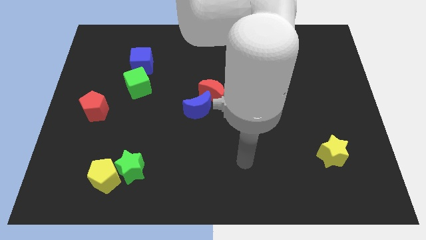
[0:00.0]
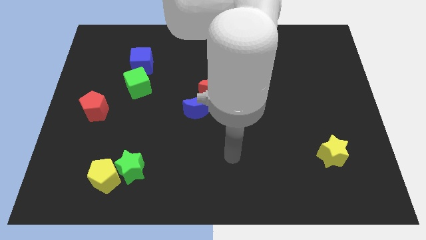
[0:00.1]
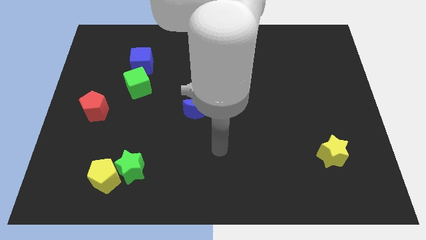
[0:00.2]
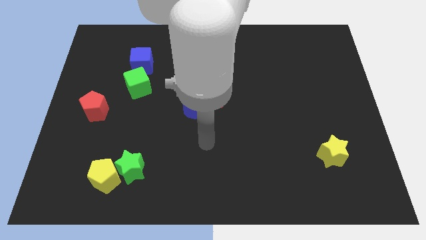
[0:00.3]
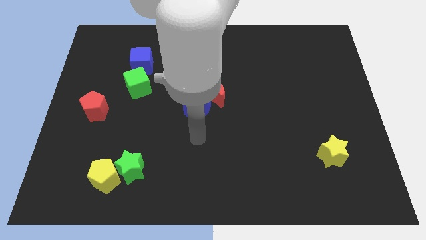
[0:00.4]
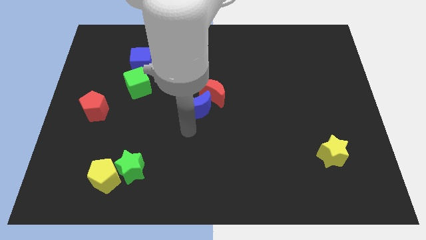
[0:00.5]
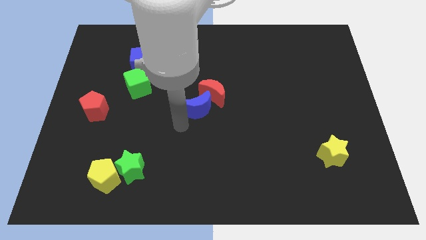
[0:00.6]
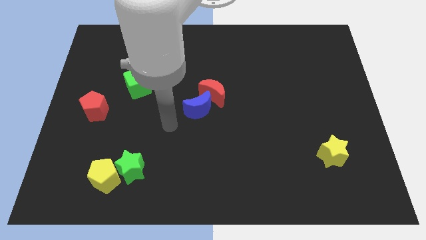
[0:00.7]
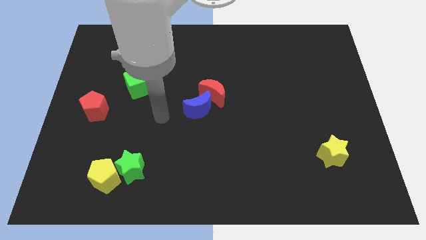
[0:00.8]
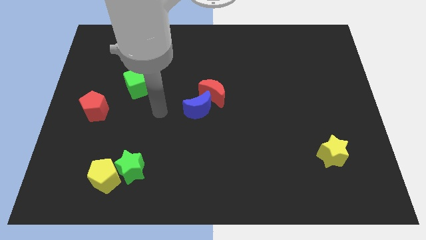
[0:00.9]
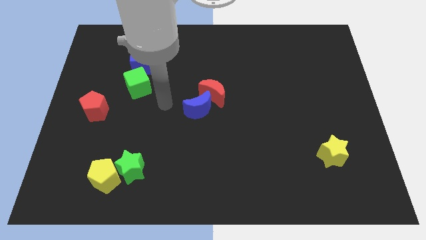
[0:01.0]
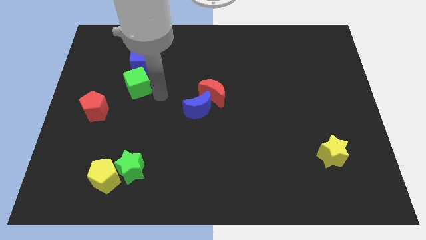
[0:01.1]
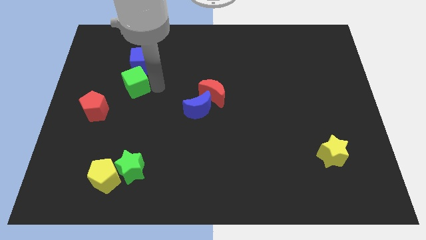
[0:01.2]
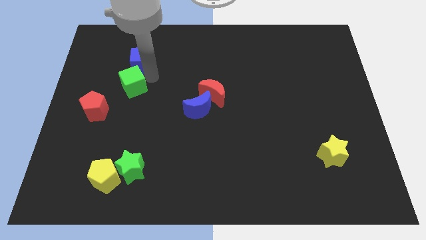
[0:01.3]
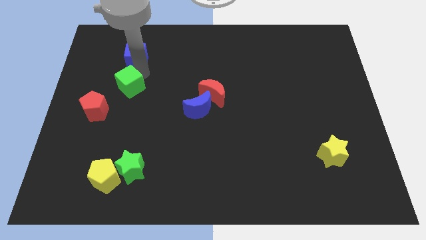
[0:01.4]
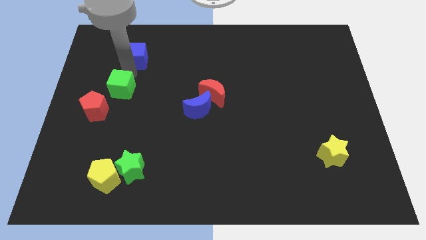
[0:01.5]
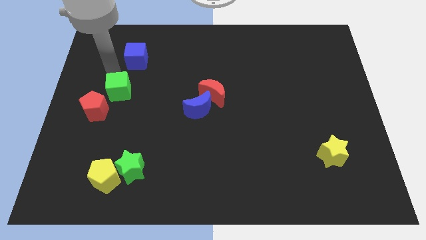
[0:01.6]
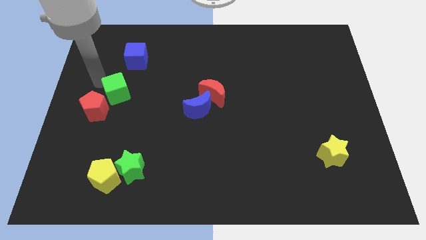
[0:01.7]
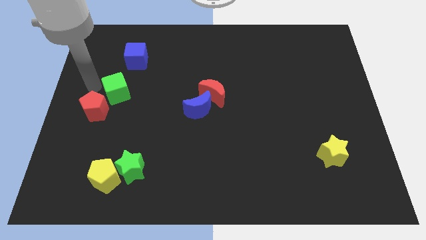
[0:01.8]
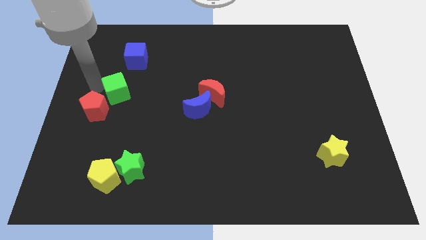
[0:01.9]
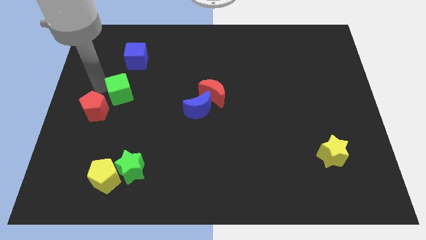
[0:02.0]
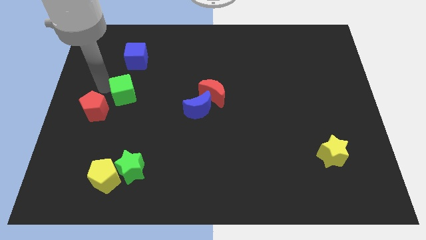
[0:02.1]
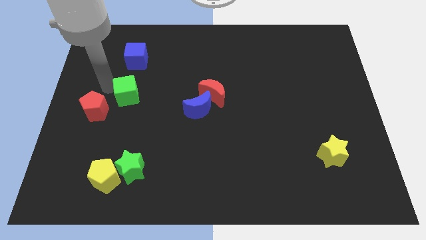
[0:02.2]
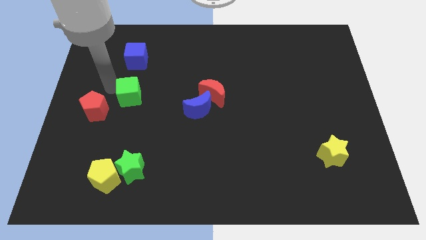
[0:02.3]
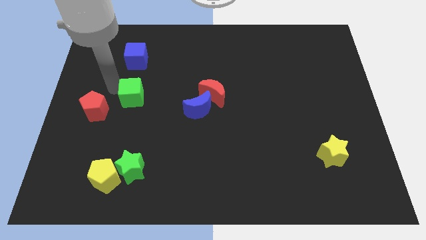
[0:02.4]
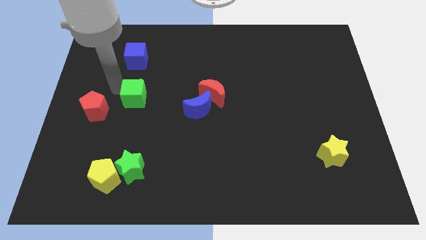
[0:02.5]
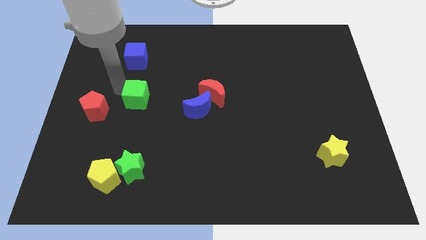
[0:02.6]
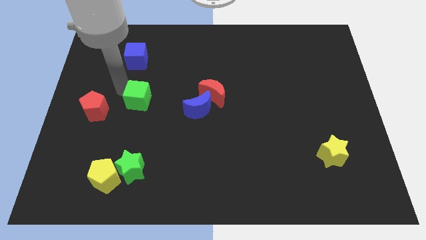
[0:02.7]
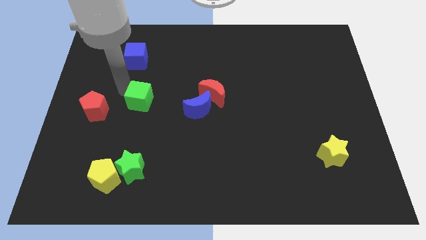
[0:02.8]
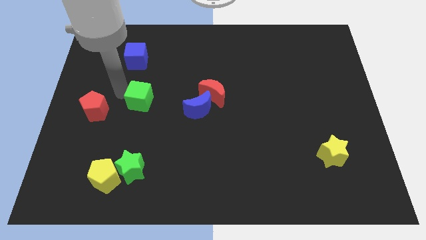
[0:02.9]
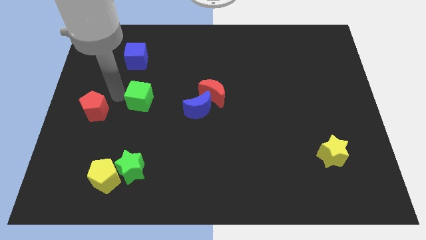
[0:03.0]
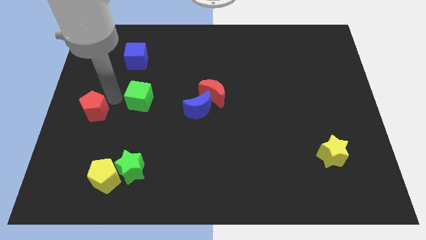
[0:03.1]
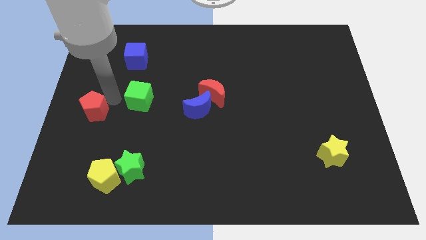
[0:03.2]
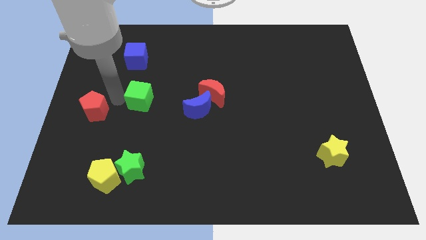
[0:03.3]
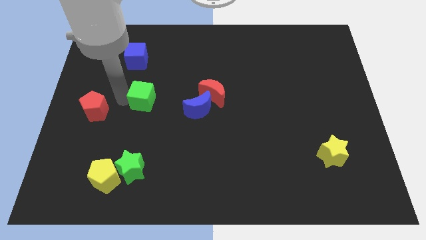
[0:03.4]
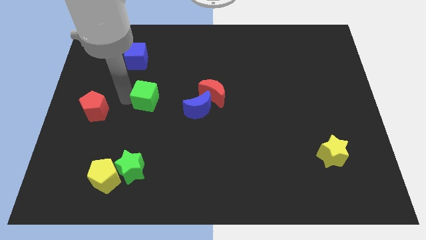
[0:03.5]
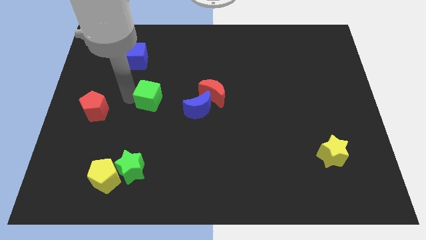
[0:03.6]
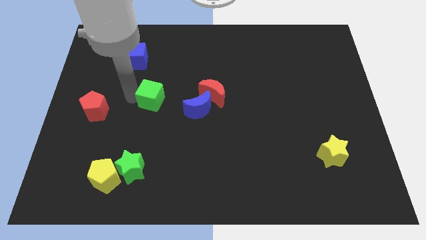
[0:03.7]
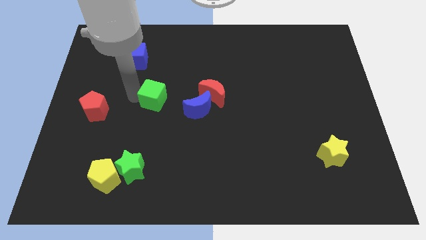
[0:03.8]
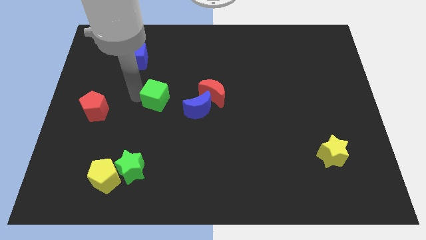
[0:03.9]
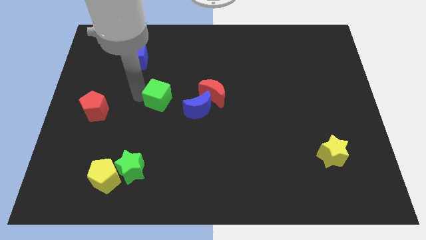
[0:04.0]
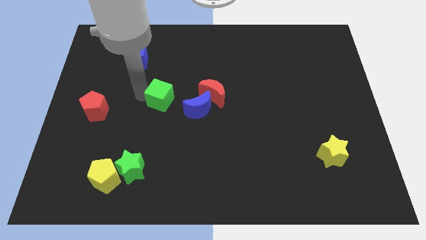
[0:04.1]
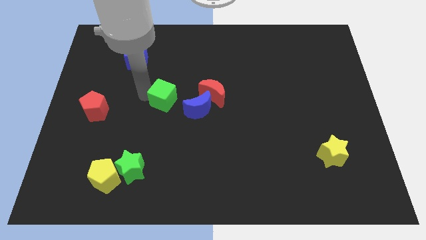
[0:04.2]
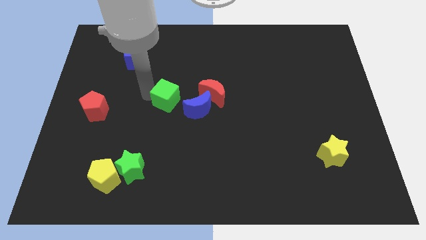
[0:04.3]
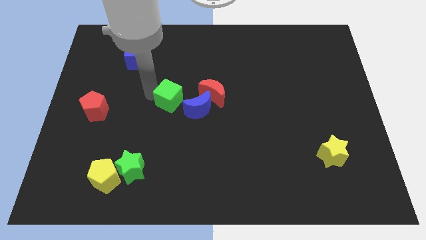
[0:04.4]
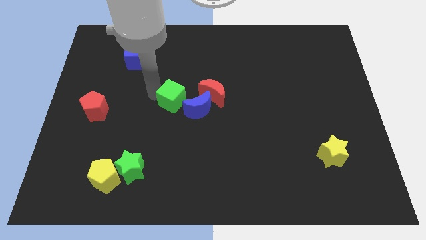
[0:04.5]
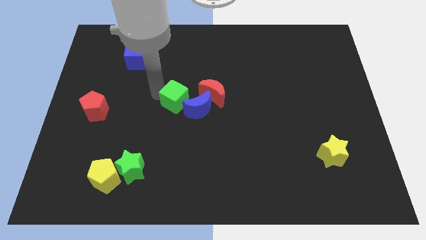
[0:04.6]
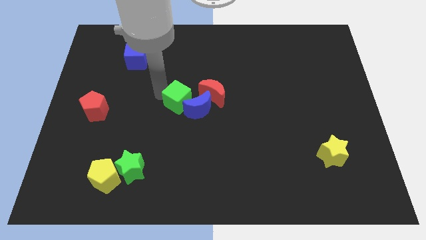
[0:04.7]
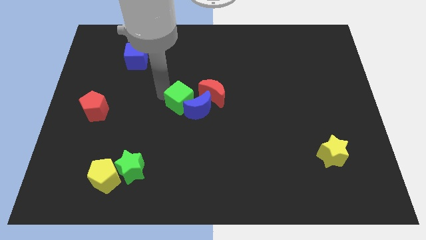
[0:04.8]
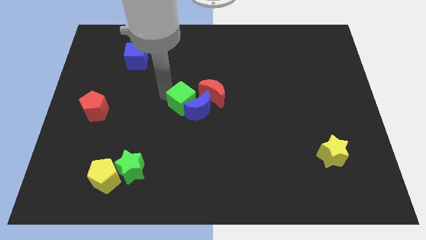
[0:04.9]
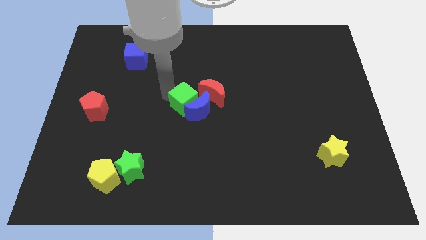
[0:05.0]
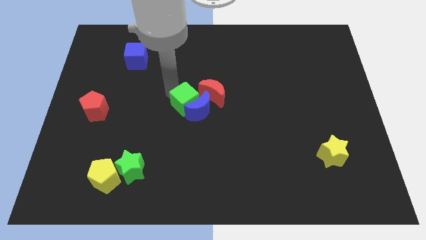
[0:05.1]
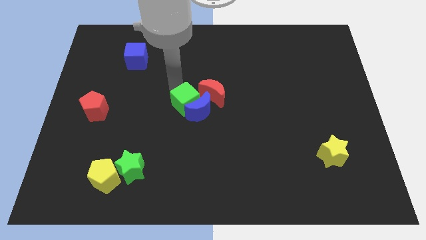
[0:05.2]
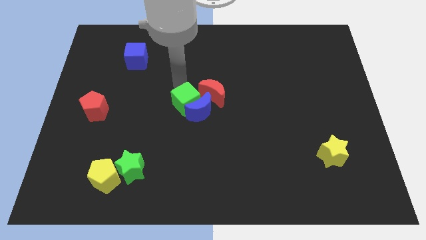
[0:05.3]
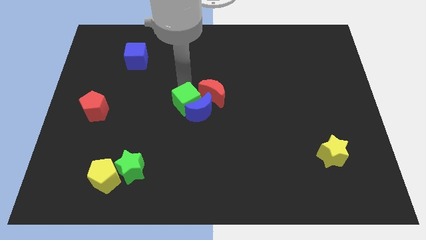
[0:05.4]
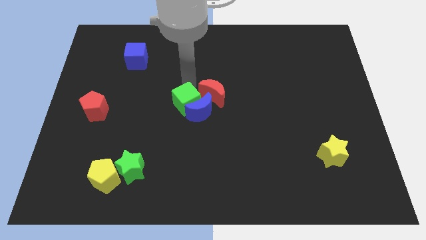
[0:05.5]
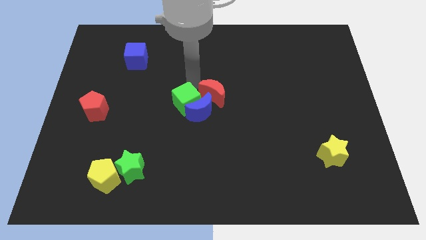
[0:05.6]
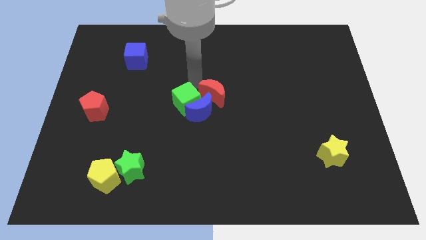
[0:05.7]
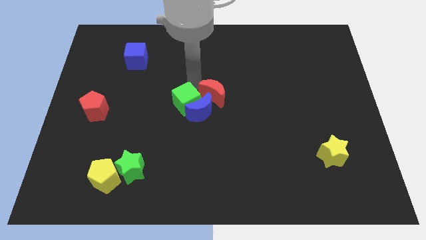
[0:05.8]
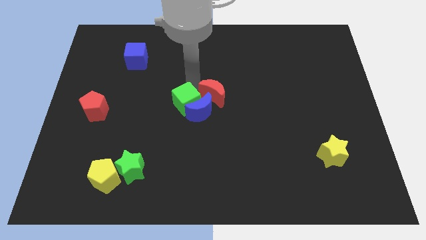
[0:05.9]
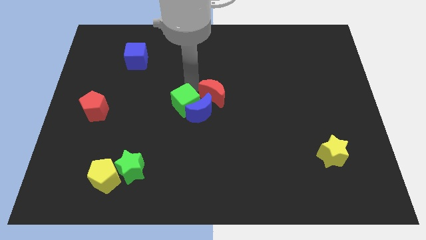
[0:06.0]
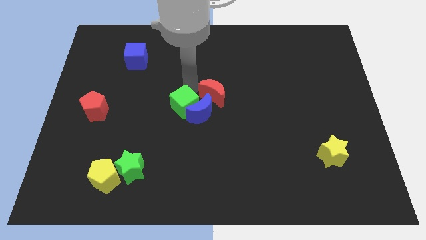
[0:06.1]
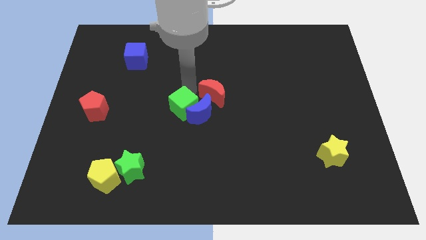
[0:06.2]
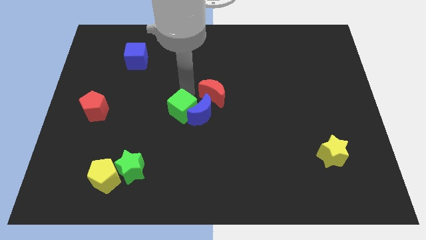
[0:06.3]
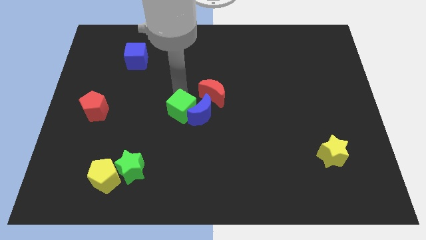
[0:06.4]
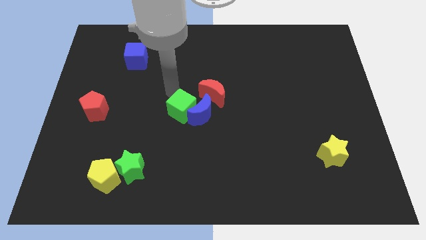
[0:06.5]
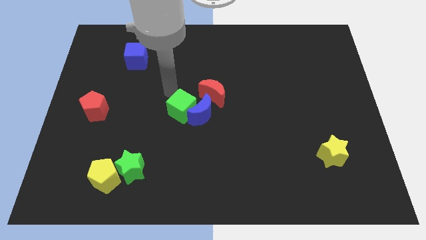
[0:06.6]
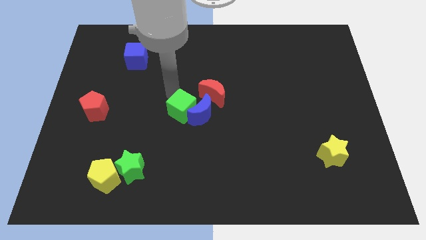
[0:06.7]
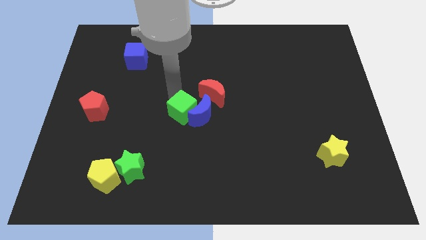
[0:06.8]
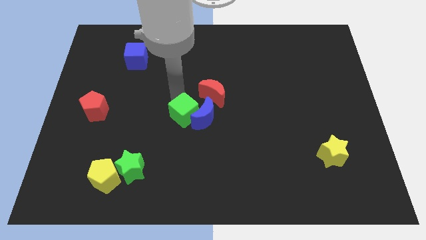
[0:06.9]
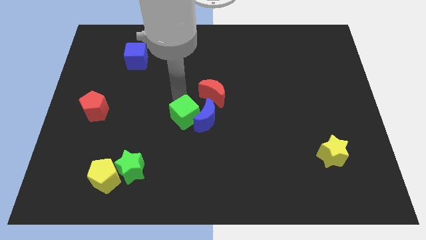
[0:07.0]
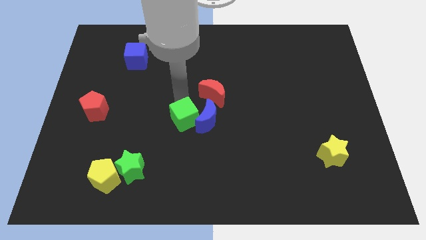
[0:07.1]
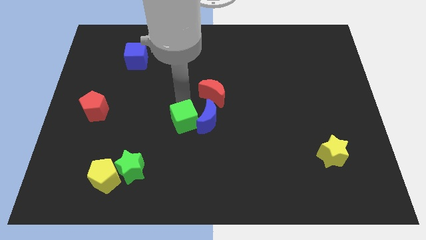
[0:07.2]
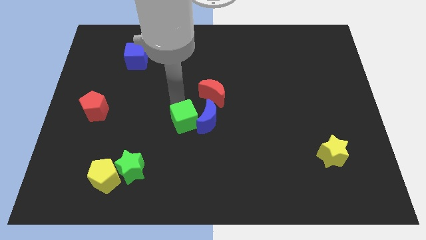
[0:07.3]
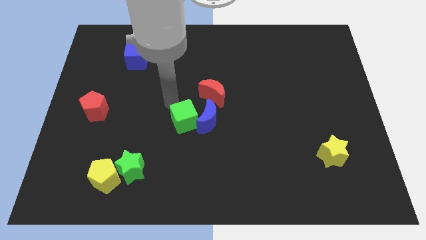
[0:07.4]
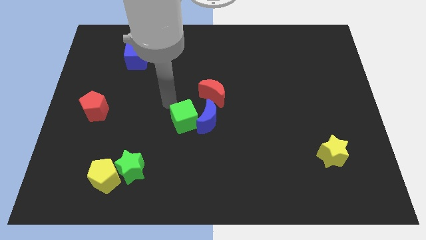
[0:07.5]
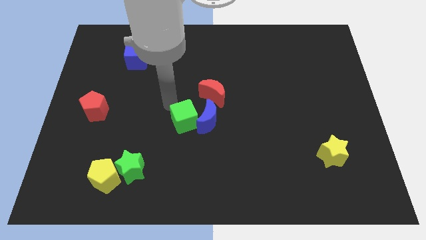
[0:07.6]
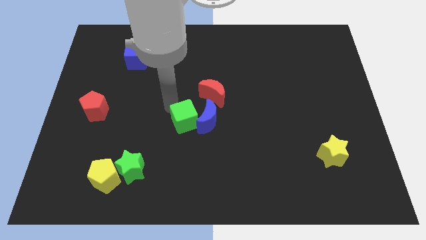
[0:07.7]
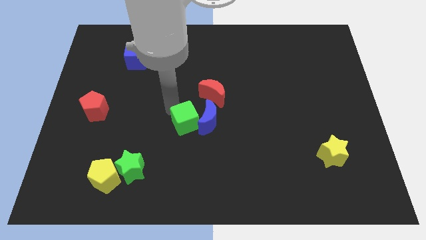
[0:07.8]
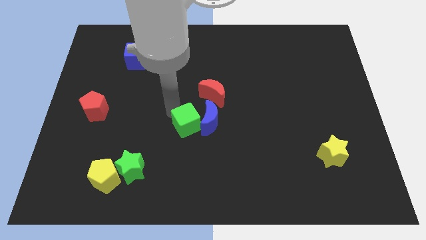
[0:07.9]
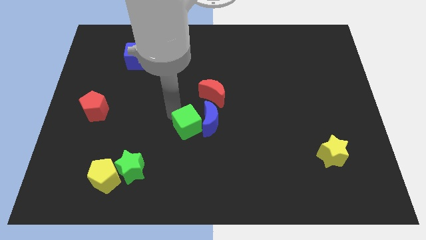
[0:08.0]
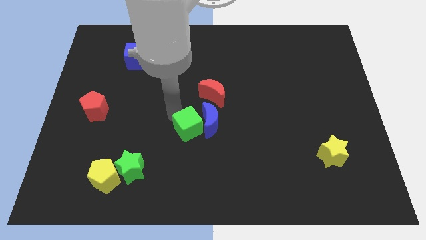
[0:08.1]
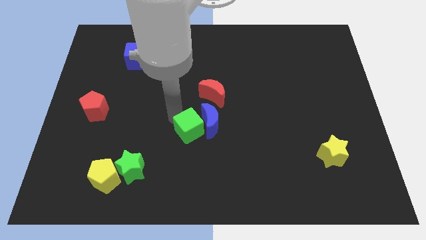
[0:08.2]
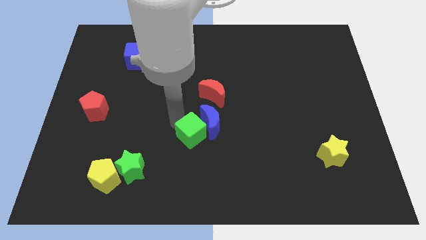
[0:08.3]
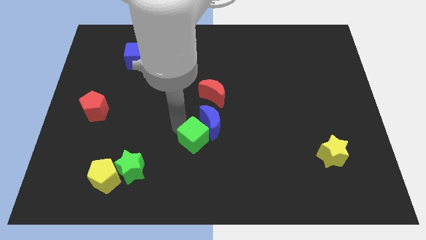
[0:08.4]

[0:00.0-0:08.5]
move the green cube downwards and then right
